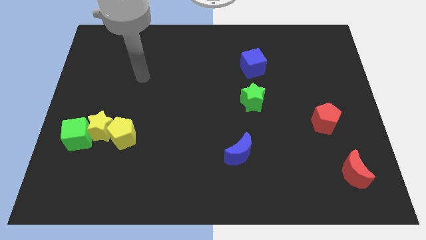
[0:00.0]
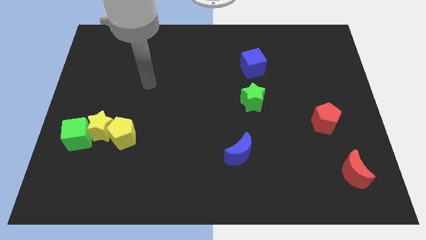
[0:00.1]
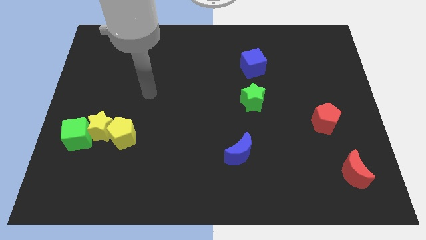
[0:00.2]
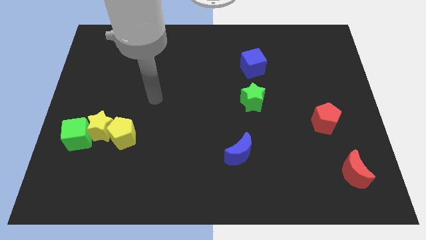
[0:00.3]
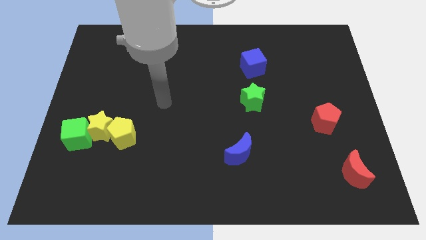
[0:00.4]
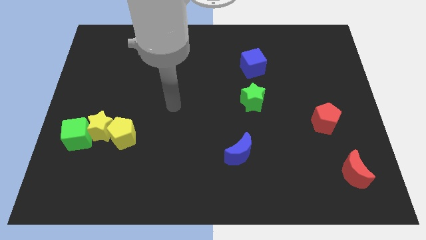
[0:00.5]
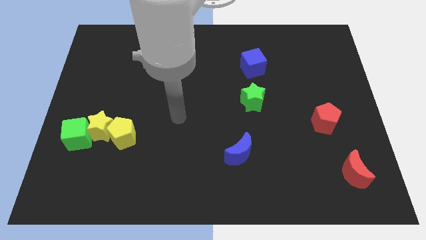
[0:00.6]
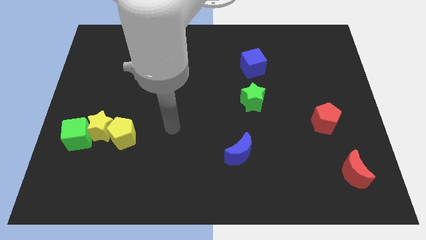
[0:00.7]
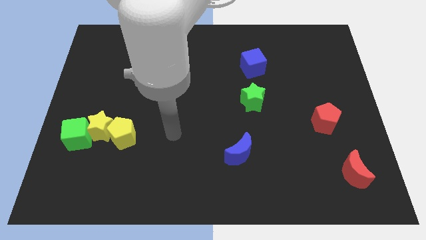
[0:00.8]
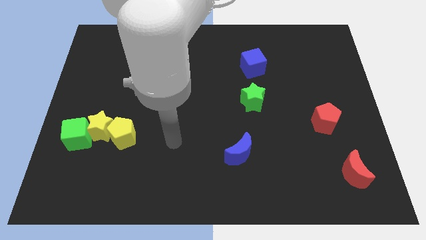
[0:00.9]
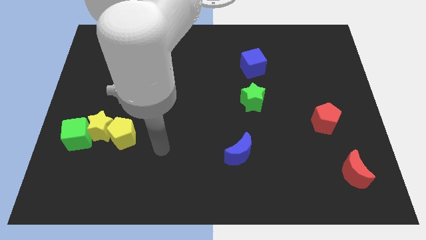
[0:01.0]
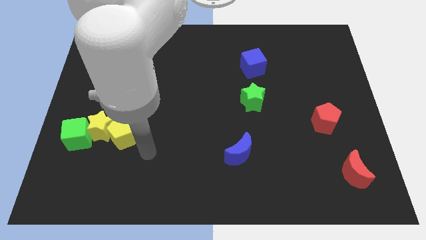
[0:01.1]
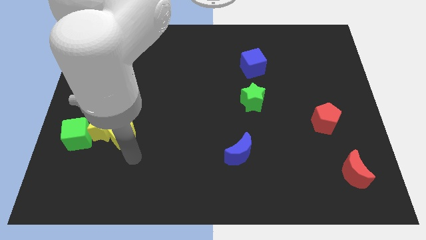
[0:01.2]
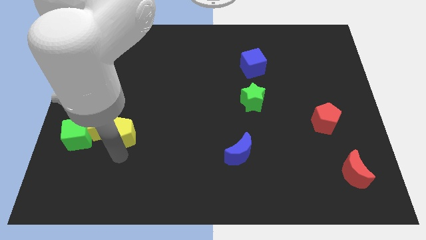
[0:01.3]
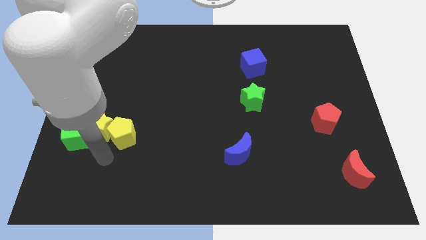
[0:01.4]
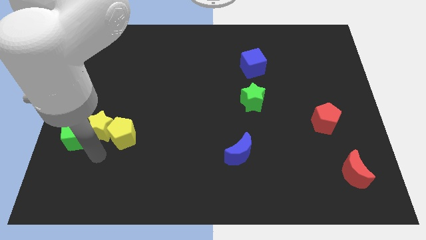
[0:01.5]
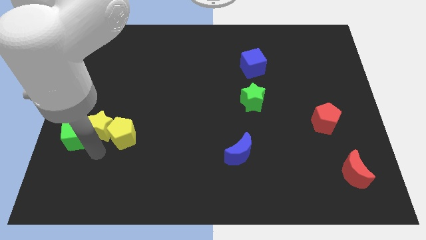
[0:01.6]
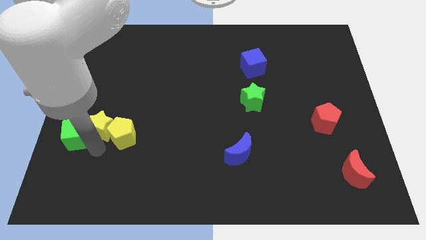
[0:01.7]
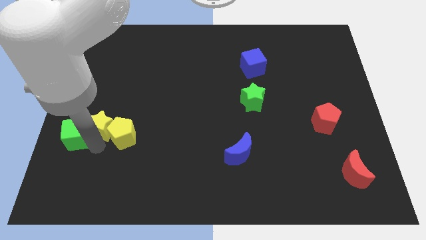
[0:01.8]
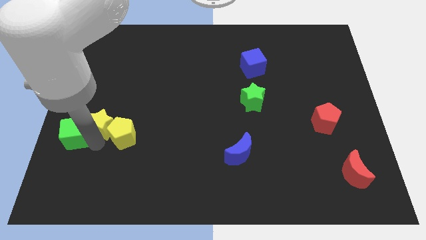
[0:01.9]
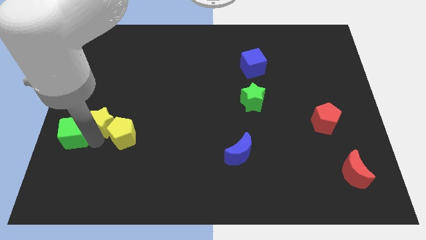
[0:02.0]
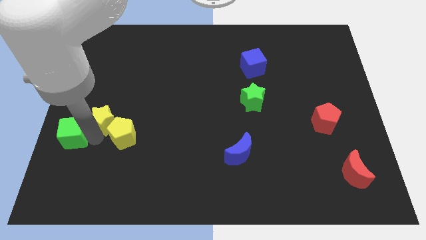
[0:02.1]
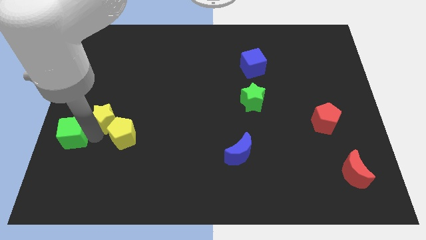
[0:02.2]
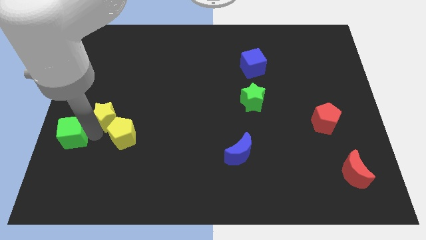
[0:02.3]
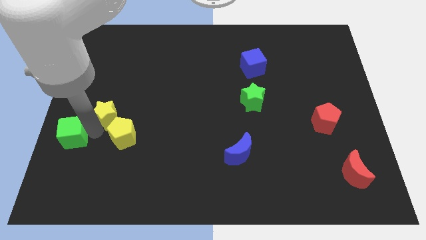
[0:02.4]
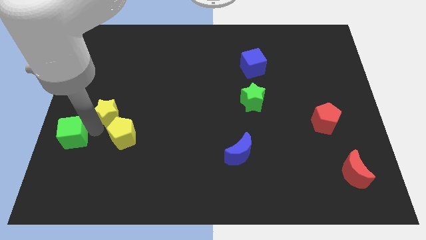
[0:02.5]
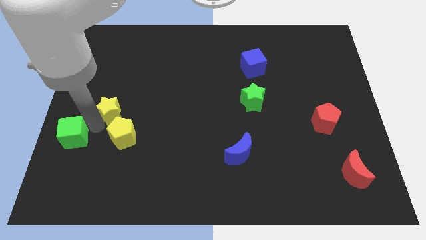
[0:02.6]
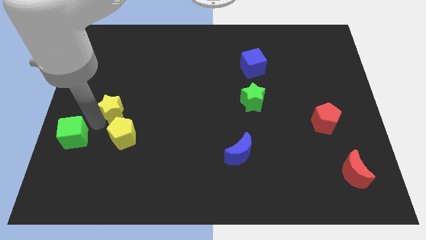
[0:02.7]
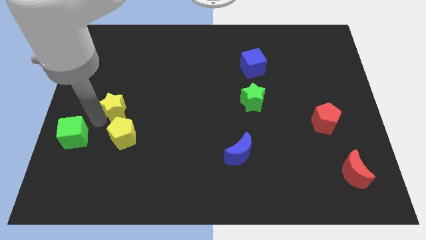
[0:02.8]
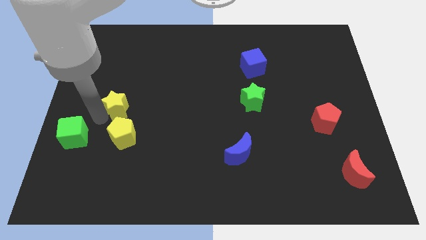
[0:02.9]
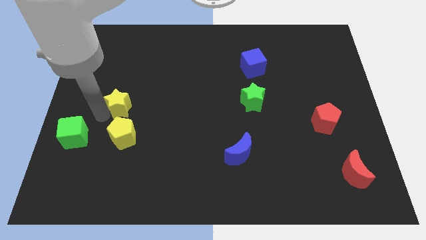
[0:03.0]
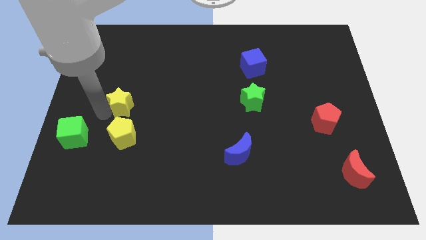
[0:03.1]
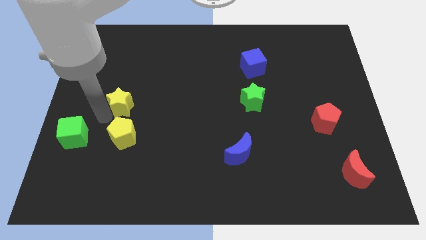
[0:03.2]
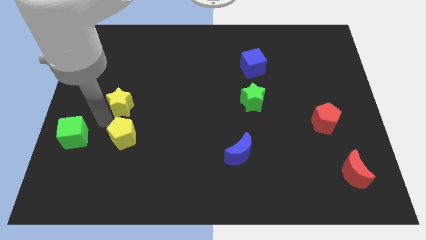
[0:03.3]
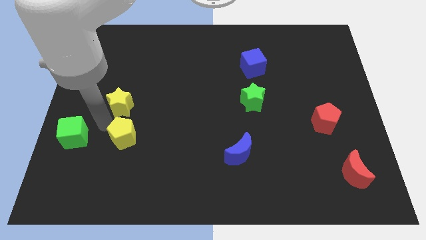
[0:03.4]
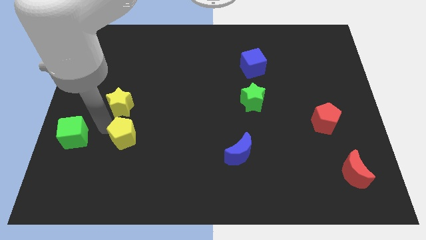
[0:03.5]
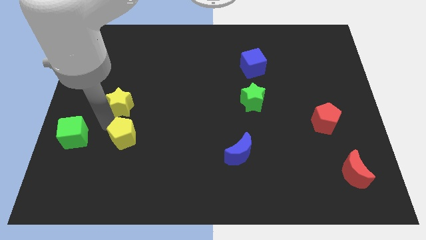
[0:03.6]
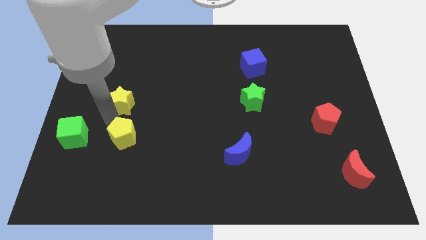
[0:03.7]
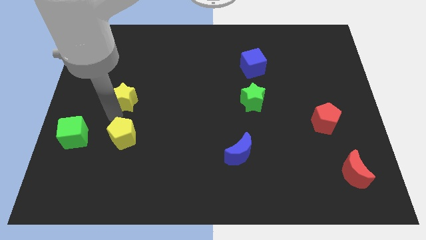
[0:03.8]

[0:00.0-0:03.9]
move the yellow star away from the yellow pentagon and green cube

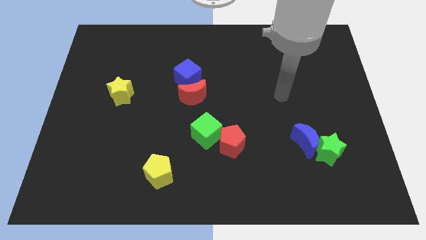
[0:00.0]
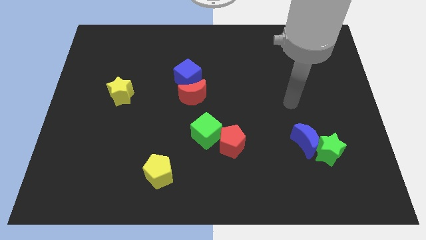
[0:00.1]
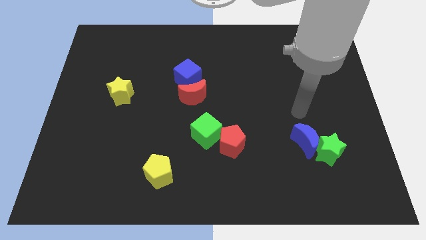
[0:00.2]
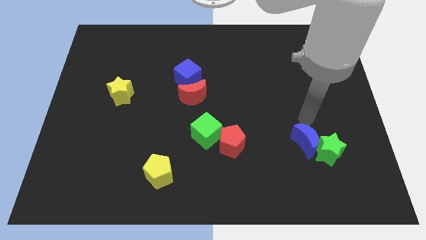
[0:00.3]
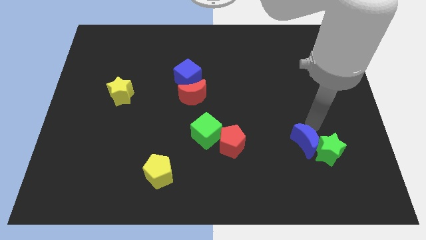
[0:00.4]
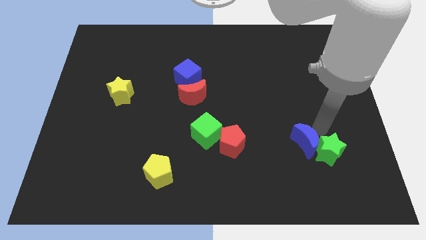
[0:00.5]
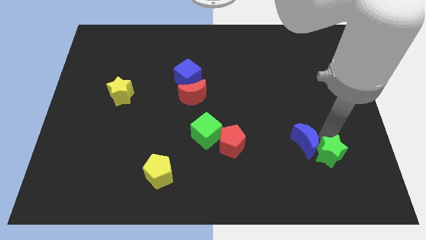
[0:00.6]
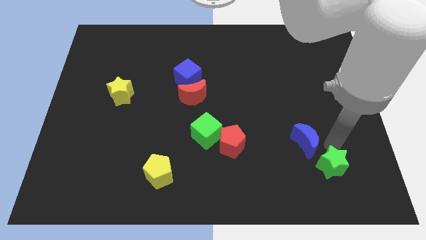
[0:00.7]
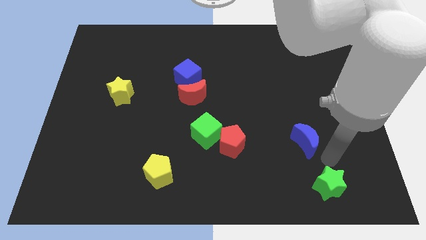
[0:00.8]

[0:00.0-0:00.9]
move the blue moon away from the green star

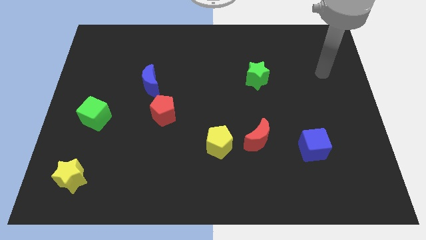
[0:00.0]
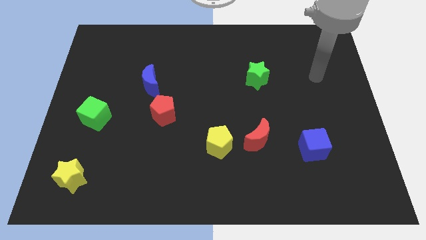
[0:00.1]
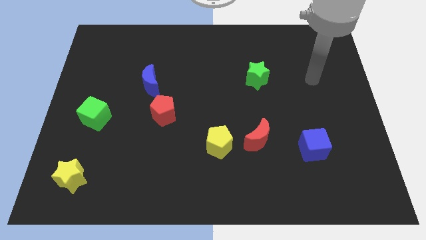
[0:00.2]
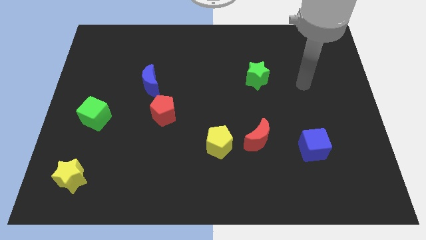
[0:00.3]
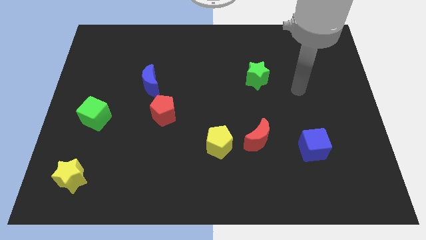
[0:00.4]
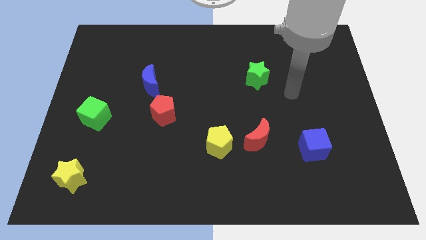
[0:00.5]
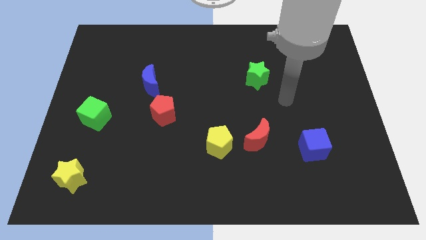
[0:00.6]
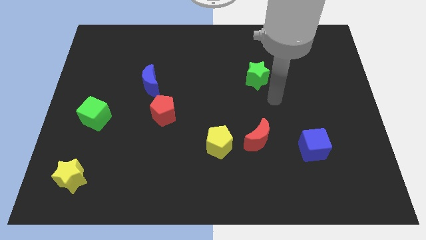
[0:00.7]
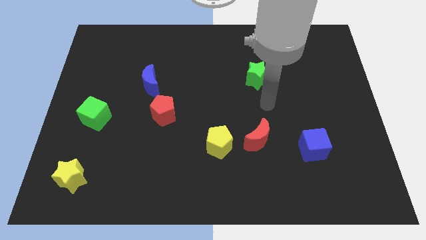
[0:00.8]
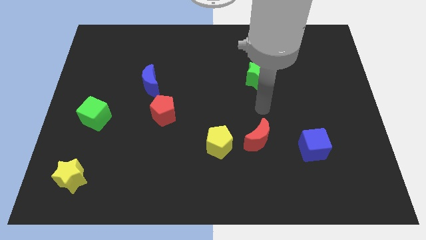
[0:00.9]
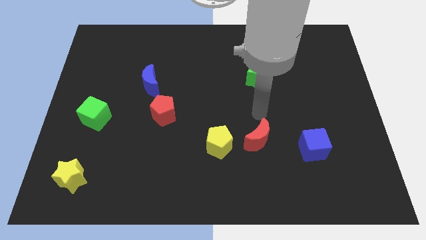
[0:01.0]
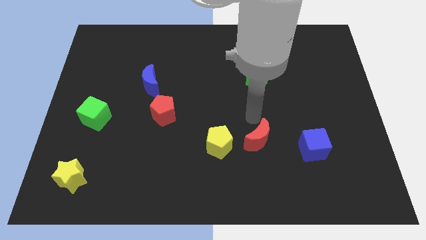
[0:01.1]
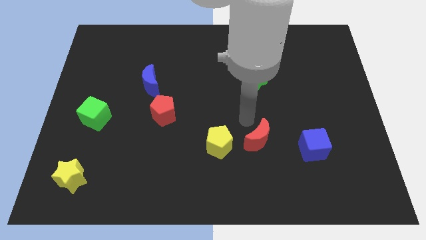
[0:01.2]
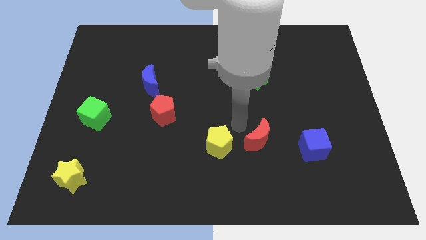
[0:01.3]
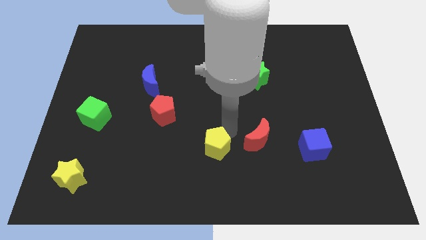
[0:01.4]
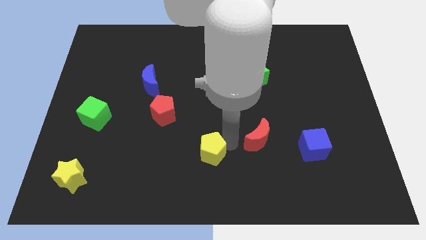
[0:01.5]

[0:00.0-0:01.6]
pull the red moon apart from the yellow pentagon

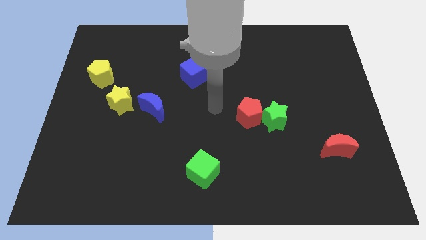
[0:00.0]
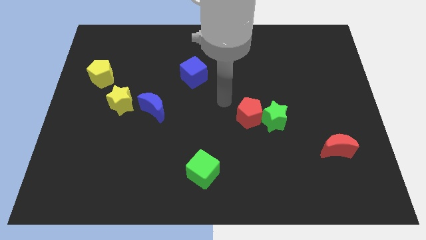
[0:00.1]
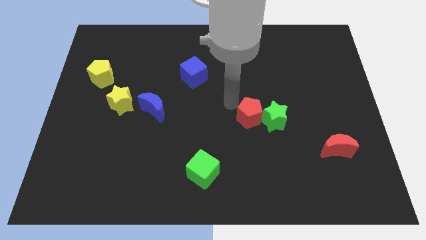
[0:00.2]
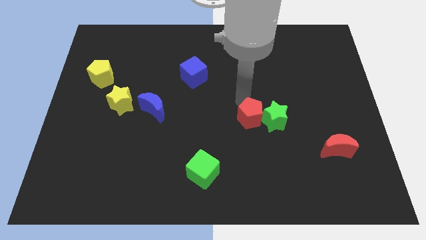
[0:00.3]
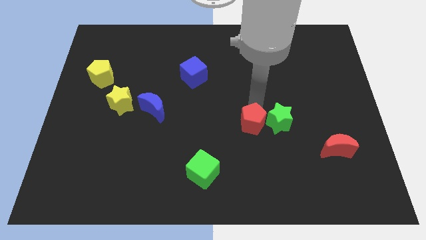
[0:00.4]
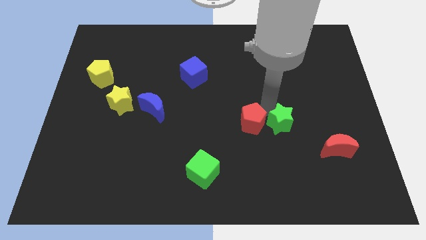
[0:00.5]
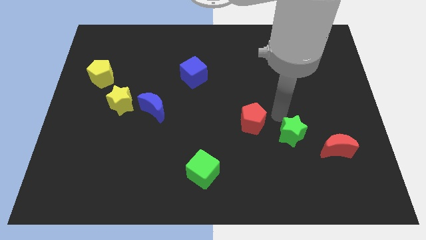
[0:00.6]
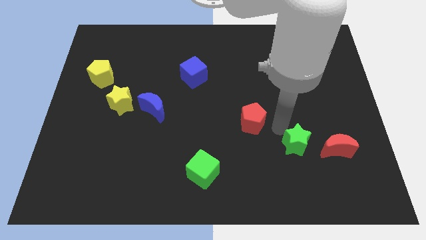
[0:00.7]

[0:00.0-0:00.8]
separate the red pentagon from the green star

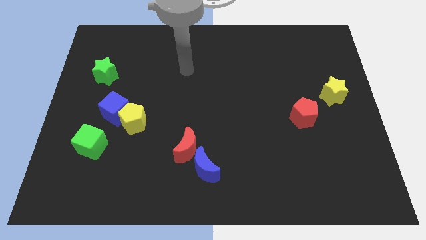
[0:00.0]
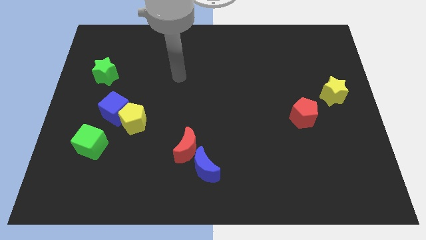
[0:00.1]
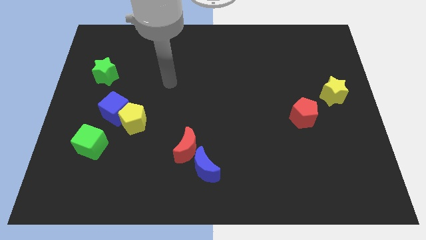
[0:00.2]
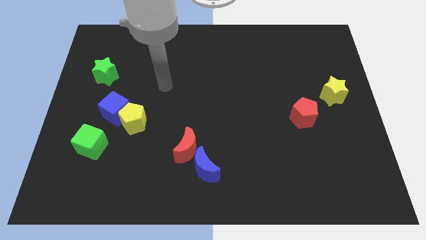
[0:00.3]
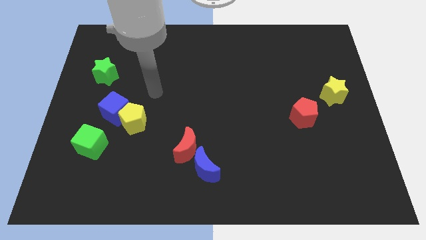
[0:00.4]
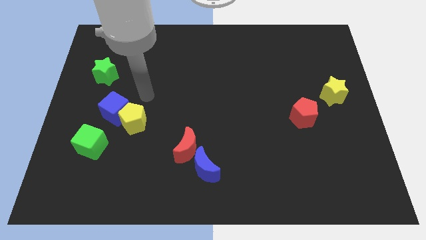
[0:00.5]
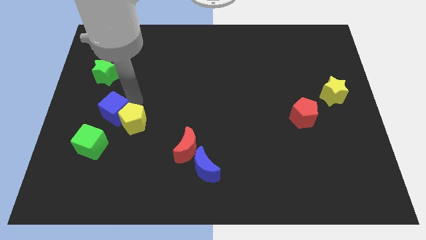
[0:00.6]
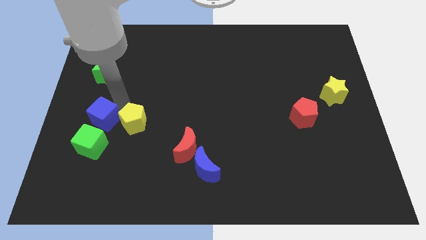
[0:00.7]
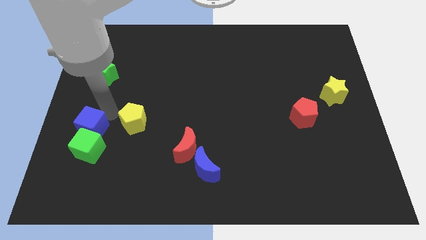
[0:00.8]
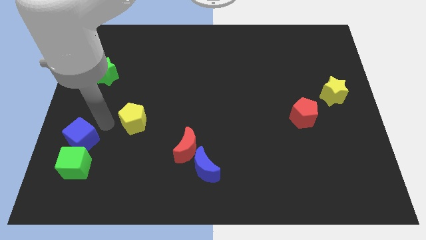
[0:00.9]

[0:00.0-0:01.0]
move the yellow pentagon away from the blue cube

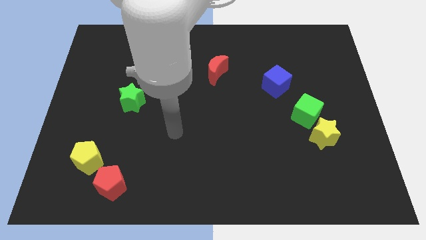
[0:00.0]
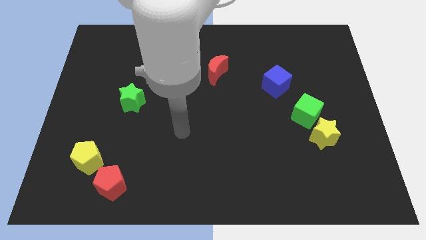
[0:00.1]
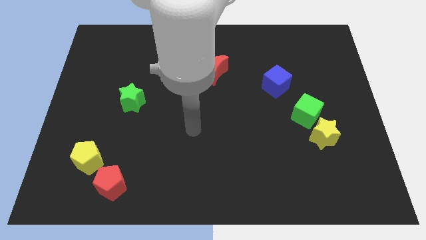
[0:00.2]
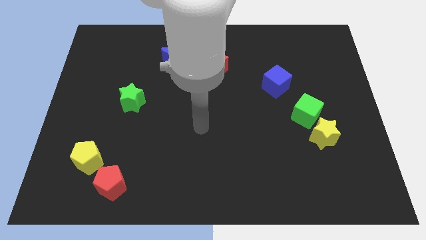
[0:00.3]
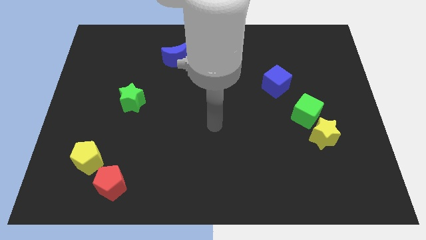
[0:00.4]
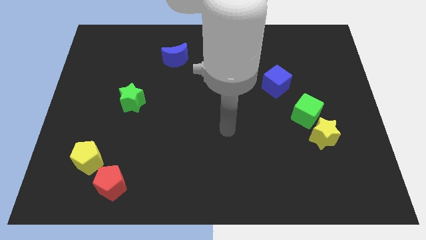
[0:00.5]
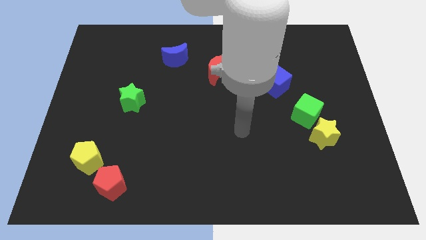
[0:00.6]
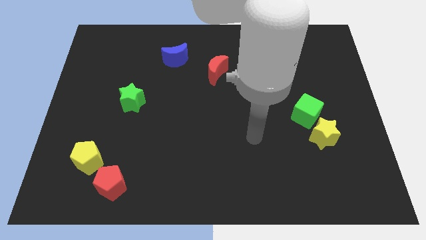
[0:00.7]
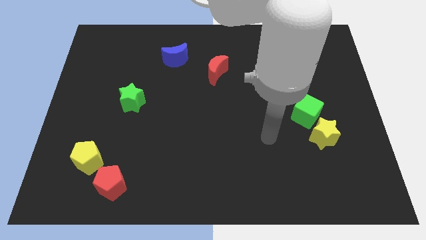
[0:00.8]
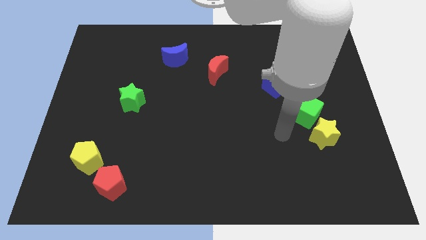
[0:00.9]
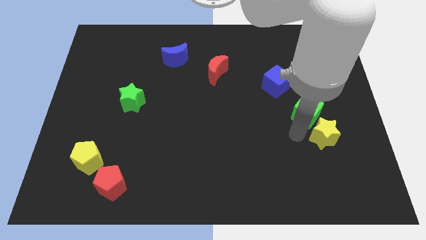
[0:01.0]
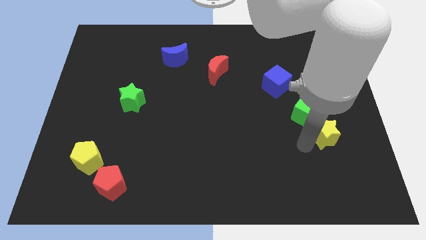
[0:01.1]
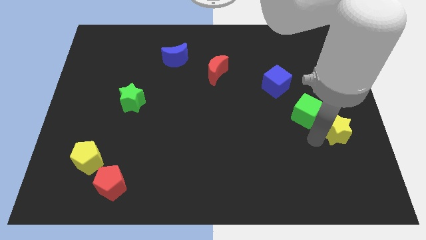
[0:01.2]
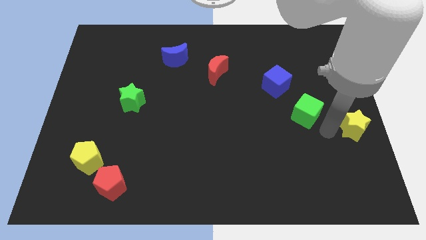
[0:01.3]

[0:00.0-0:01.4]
separate the green cube from the yellow star
